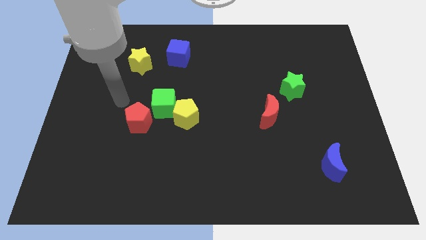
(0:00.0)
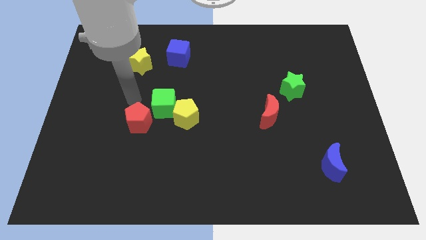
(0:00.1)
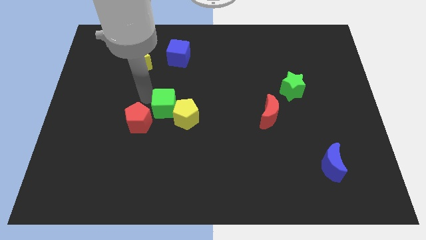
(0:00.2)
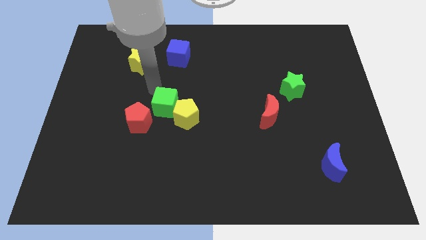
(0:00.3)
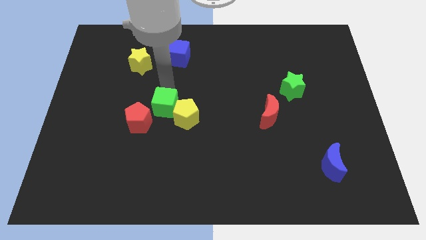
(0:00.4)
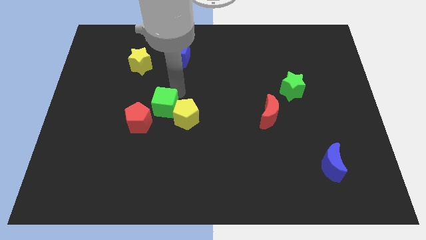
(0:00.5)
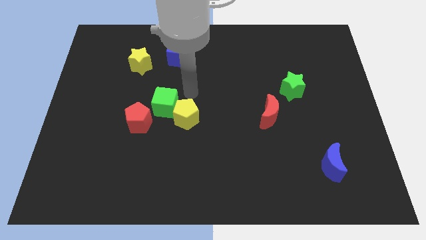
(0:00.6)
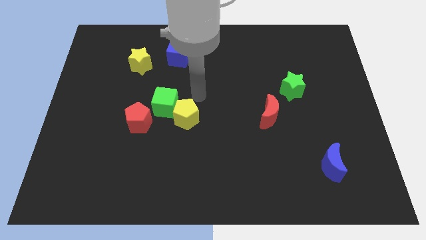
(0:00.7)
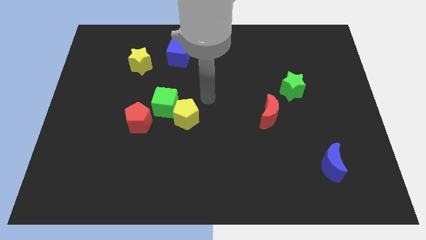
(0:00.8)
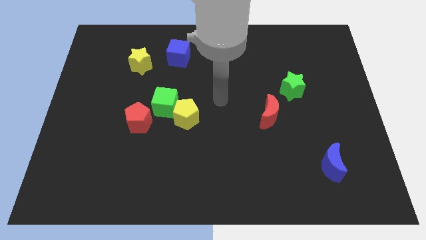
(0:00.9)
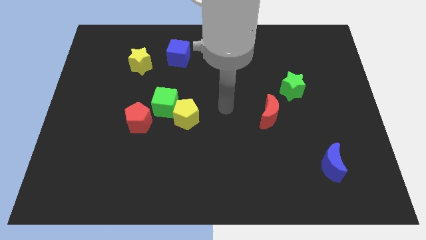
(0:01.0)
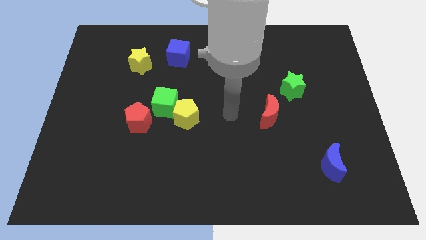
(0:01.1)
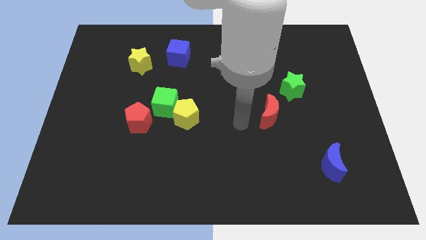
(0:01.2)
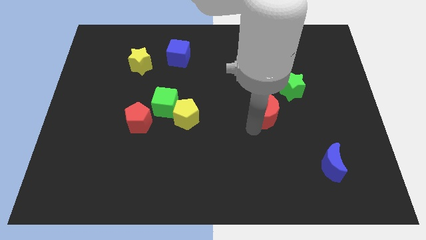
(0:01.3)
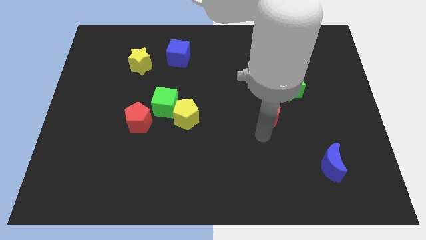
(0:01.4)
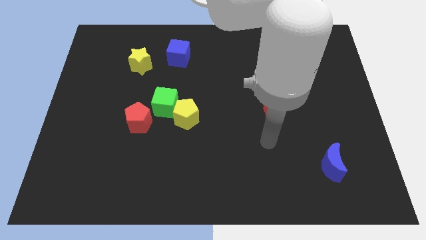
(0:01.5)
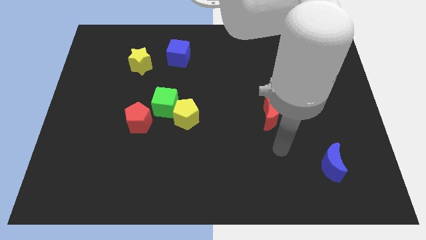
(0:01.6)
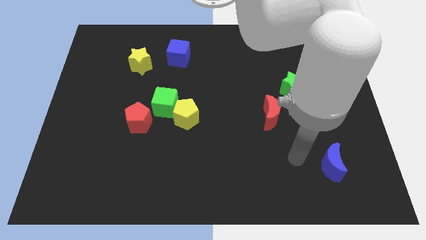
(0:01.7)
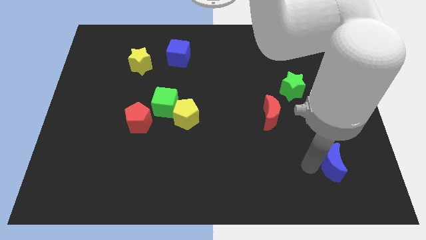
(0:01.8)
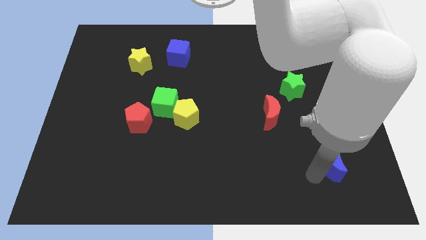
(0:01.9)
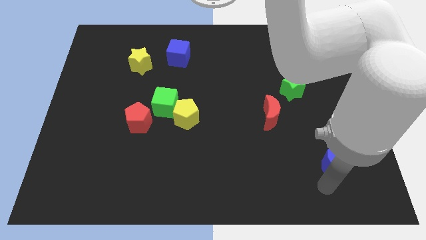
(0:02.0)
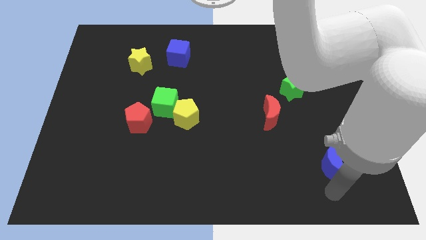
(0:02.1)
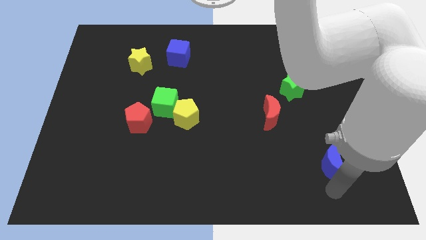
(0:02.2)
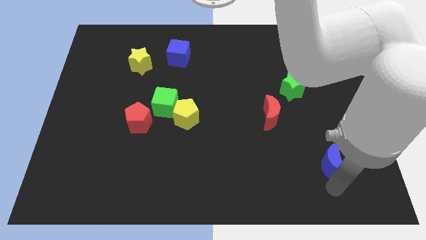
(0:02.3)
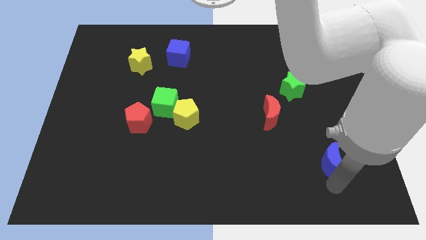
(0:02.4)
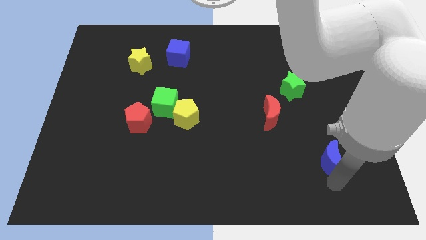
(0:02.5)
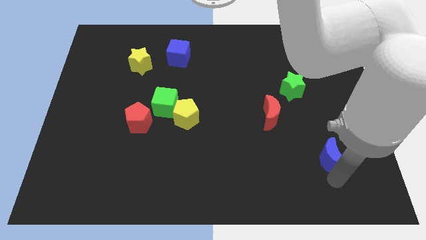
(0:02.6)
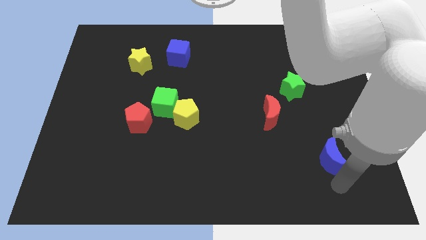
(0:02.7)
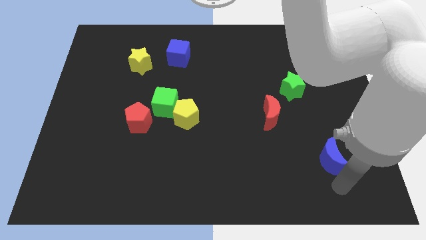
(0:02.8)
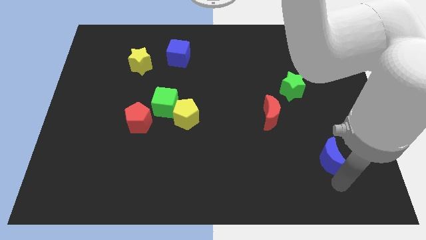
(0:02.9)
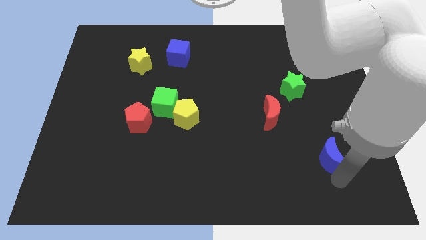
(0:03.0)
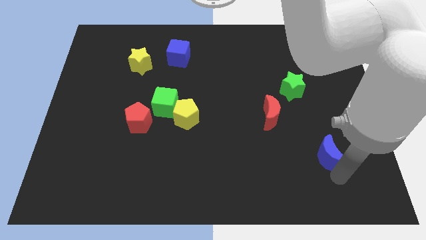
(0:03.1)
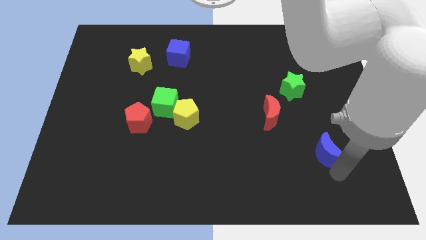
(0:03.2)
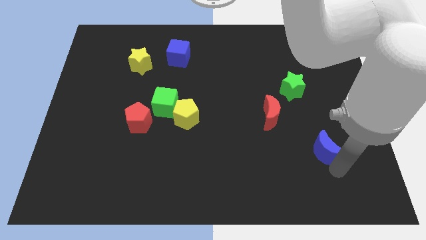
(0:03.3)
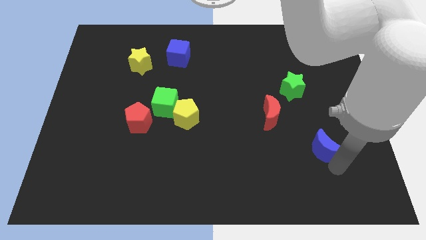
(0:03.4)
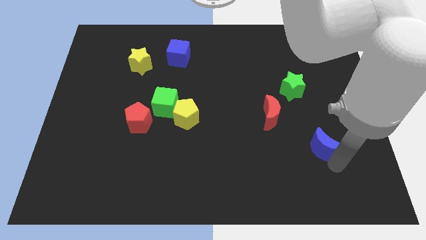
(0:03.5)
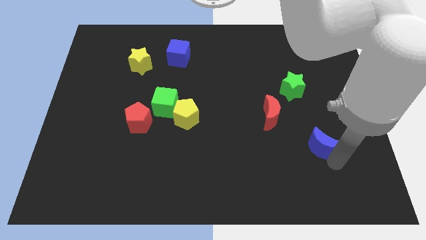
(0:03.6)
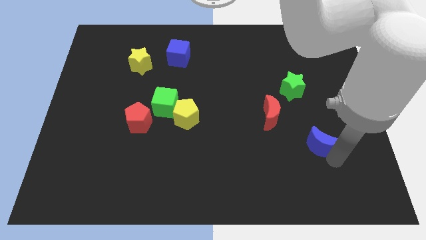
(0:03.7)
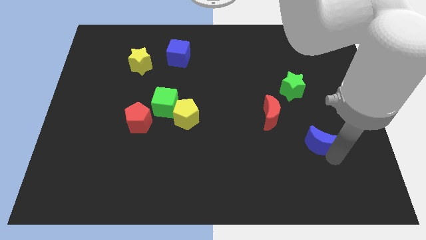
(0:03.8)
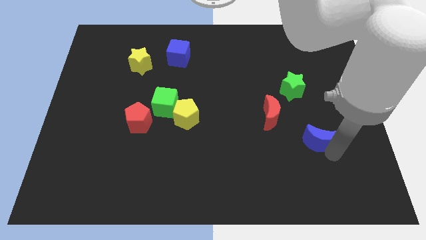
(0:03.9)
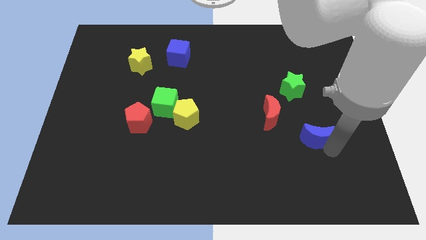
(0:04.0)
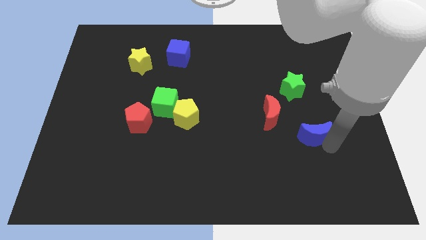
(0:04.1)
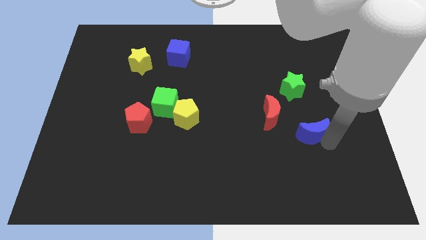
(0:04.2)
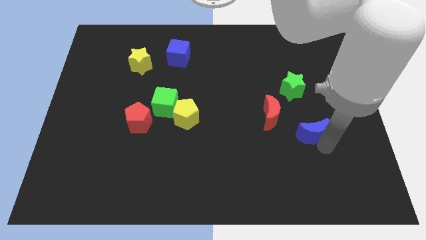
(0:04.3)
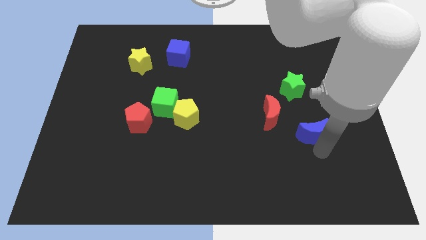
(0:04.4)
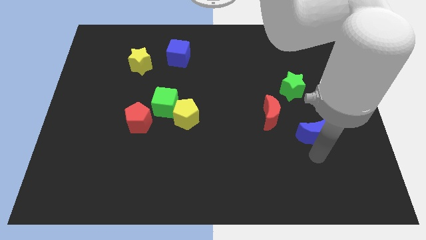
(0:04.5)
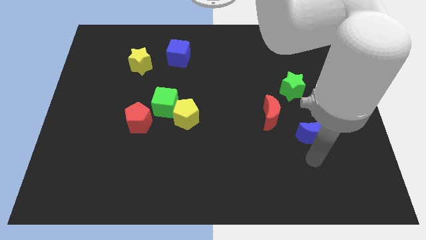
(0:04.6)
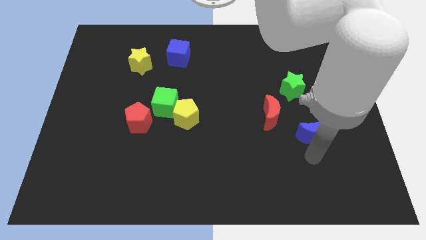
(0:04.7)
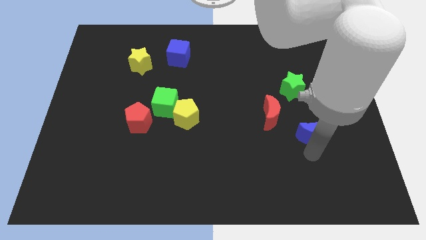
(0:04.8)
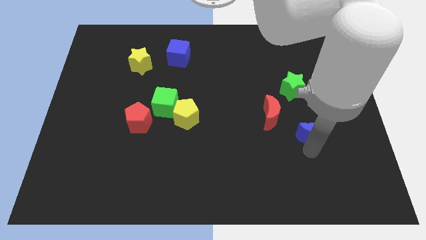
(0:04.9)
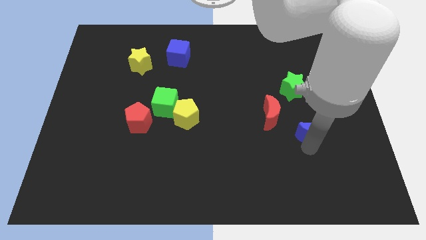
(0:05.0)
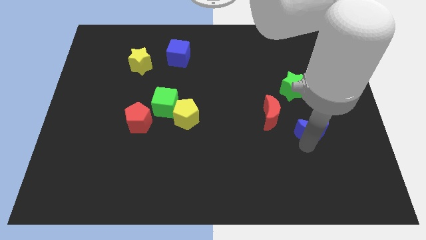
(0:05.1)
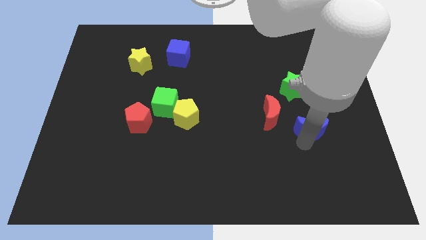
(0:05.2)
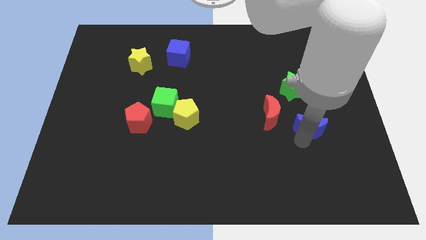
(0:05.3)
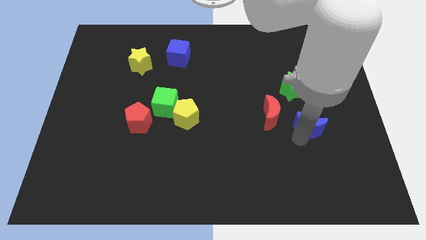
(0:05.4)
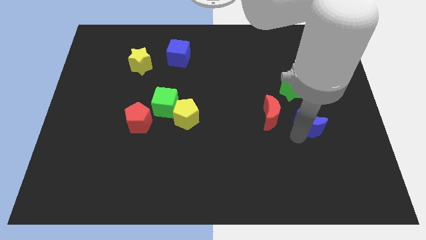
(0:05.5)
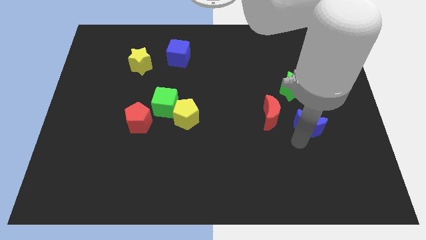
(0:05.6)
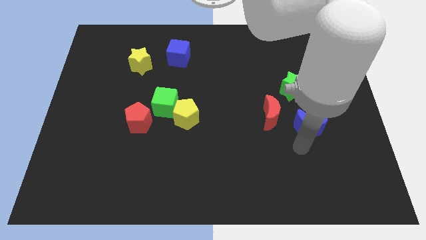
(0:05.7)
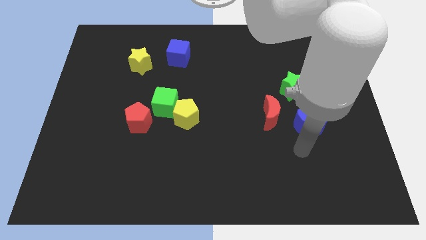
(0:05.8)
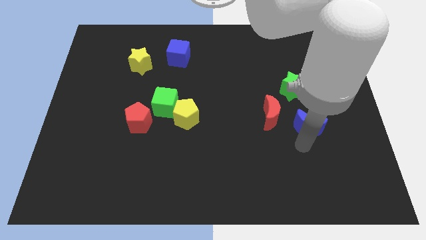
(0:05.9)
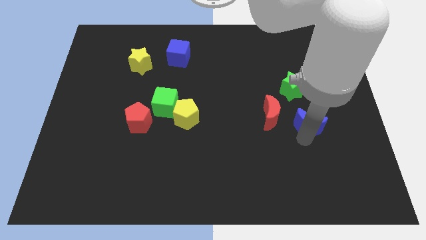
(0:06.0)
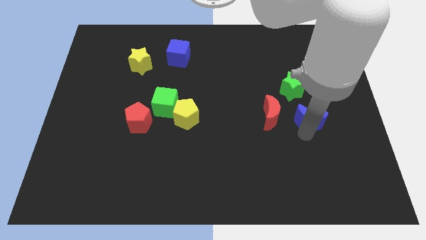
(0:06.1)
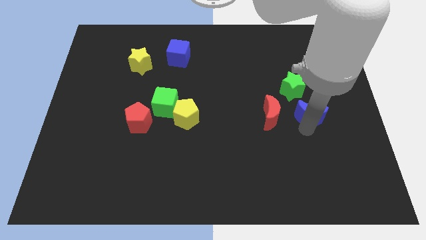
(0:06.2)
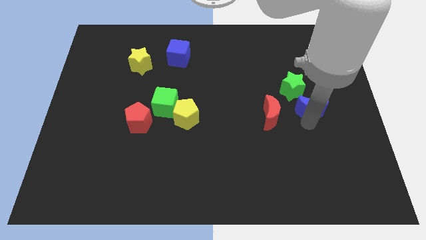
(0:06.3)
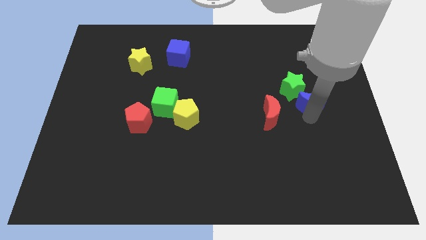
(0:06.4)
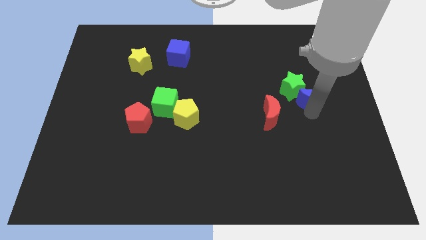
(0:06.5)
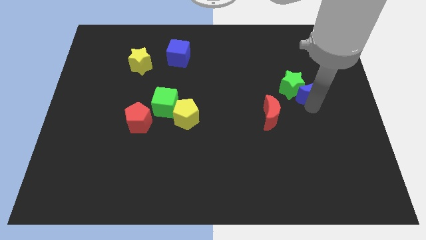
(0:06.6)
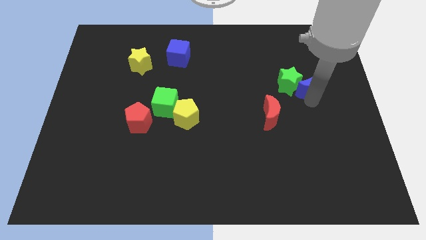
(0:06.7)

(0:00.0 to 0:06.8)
push the blue moon upwards

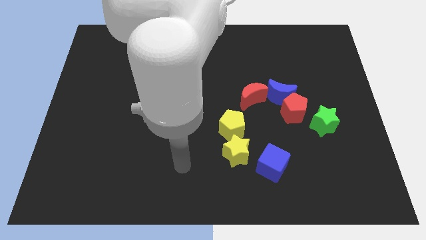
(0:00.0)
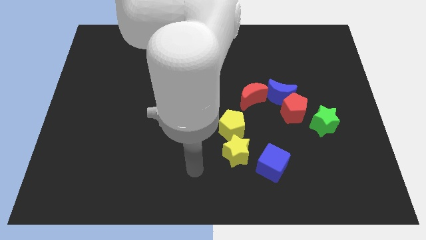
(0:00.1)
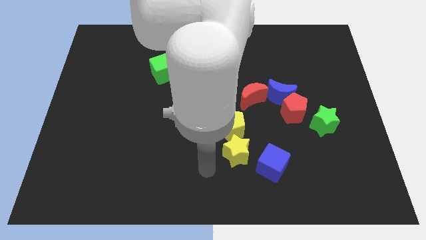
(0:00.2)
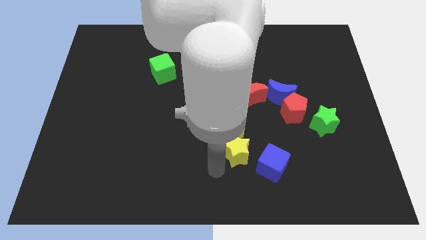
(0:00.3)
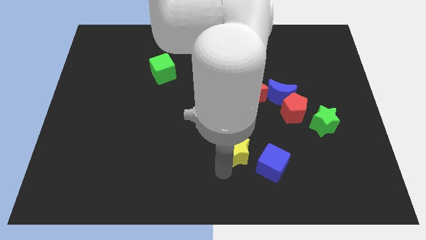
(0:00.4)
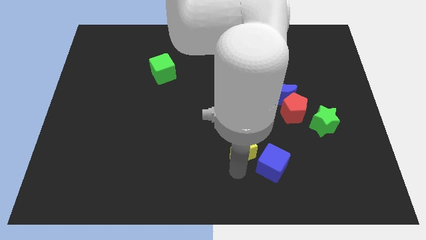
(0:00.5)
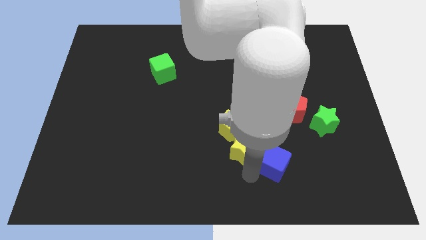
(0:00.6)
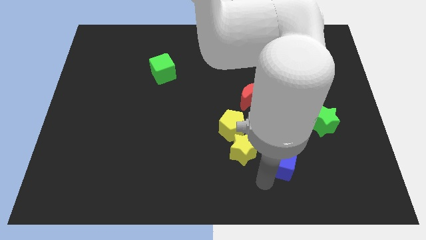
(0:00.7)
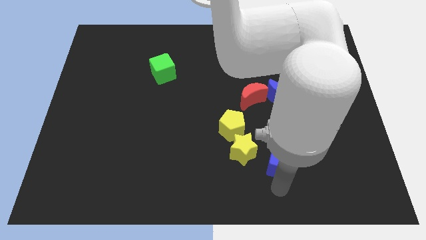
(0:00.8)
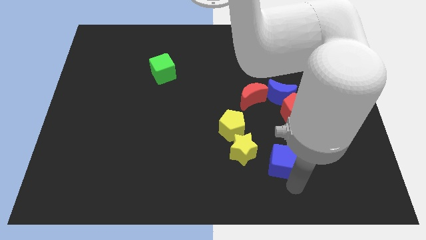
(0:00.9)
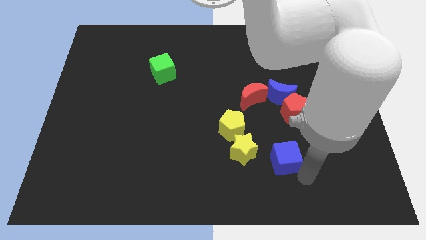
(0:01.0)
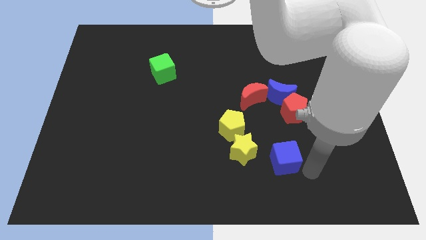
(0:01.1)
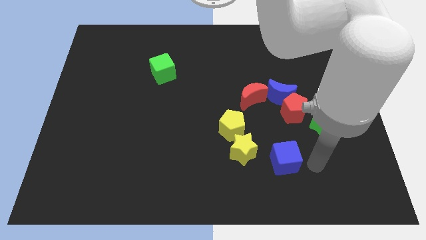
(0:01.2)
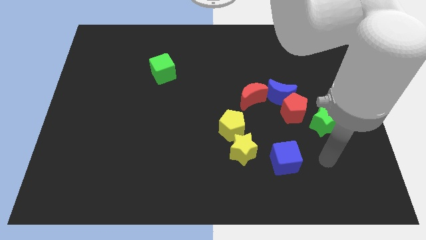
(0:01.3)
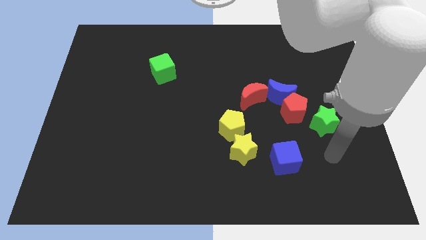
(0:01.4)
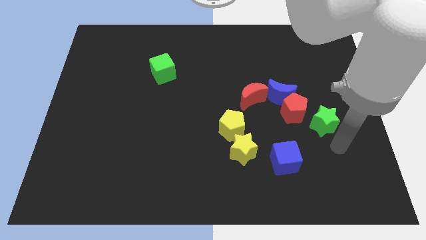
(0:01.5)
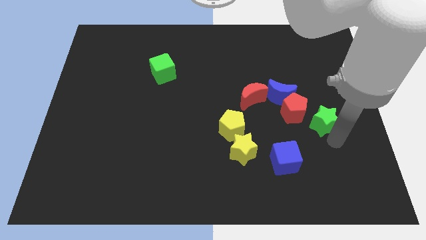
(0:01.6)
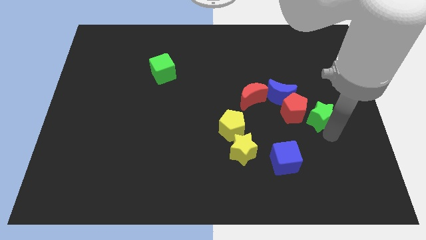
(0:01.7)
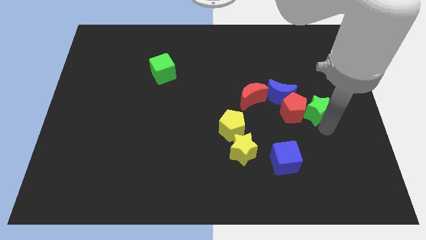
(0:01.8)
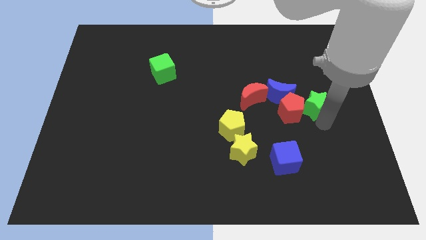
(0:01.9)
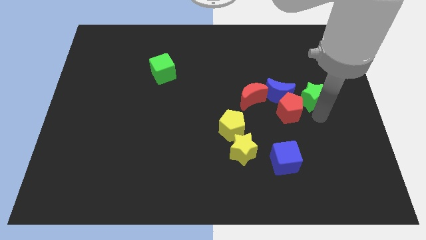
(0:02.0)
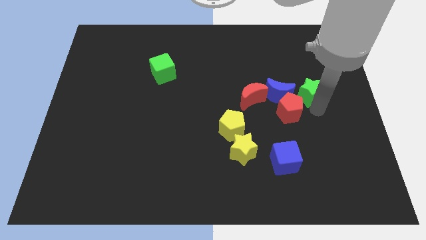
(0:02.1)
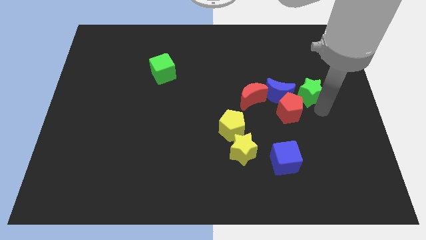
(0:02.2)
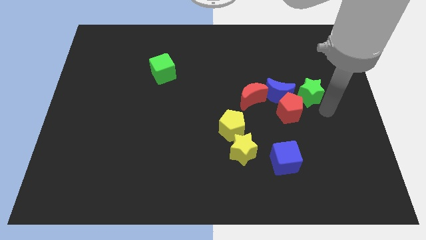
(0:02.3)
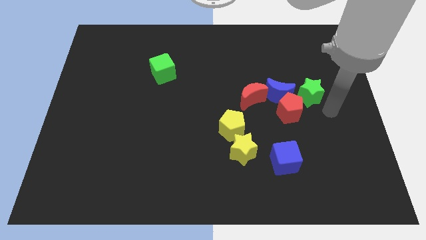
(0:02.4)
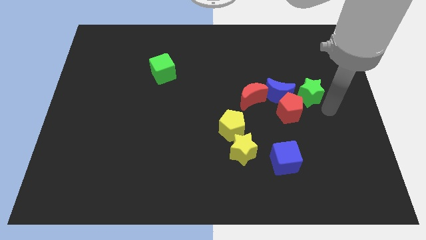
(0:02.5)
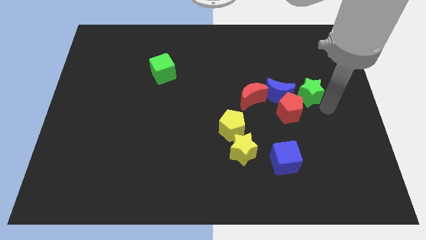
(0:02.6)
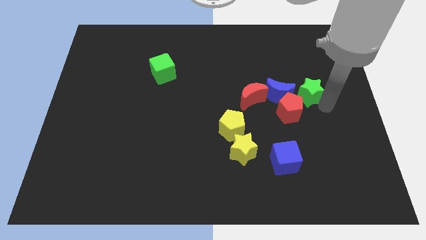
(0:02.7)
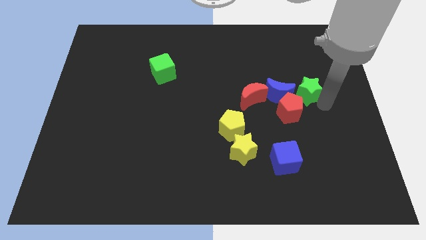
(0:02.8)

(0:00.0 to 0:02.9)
slightly slide the green star up and left diagonally
